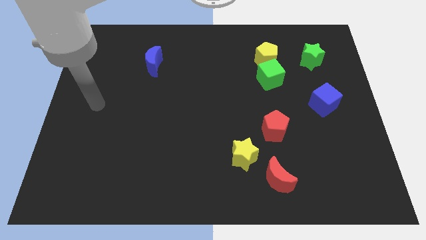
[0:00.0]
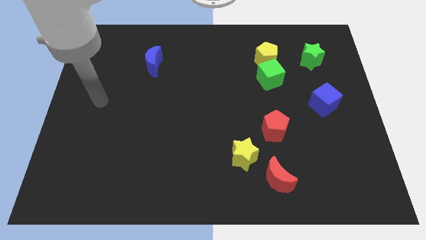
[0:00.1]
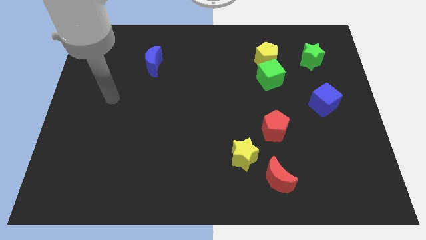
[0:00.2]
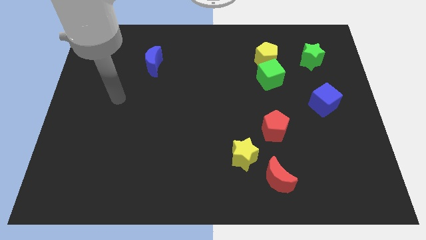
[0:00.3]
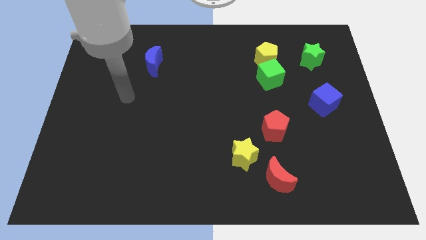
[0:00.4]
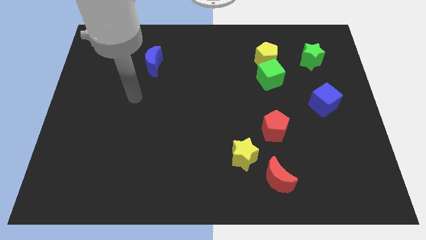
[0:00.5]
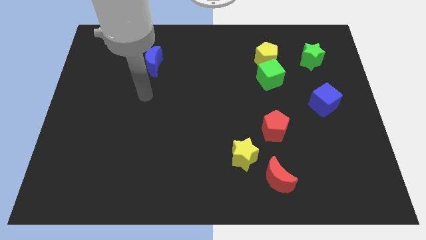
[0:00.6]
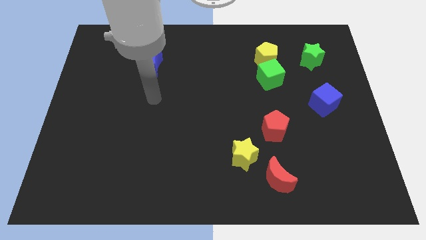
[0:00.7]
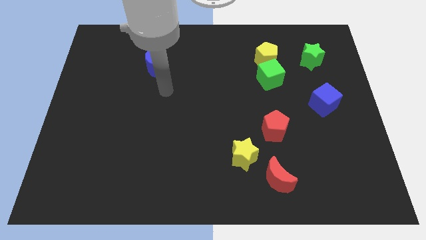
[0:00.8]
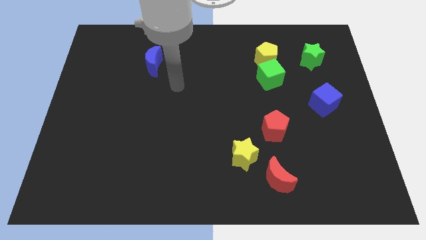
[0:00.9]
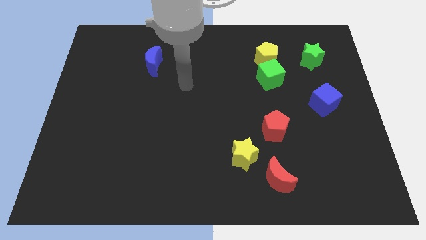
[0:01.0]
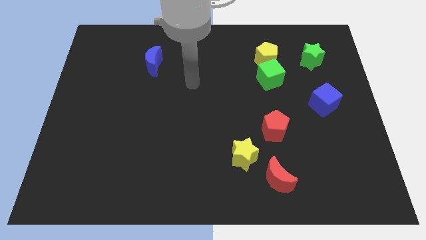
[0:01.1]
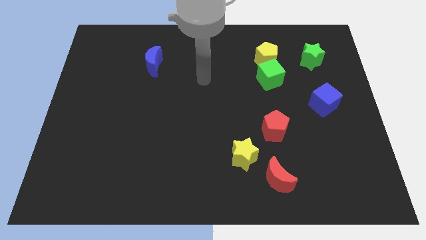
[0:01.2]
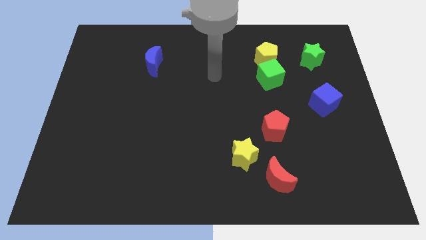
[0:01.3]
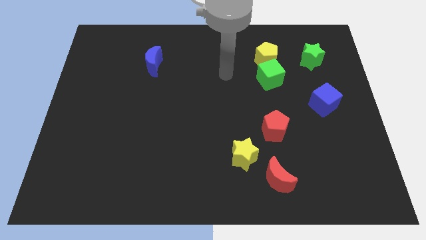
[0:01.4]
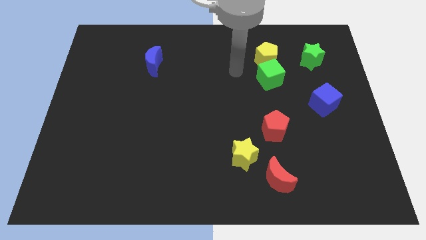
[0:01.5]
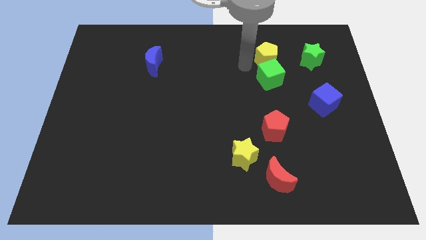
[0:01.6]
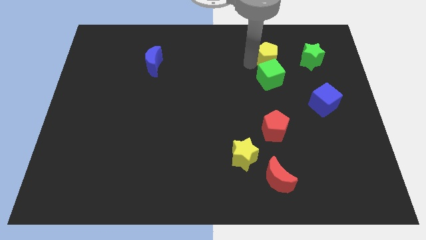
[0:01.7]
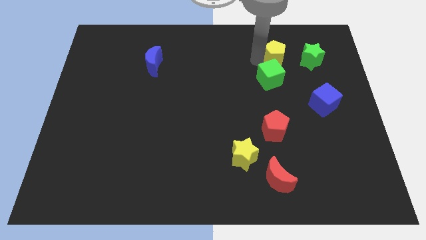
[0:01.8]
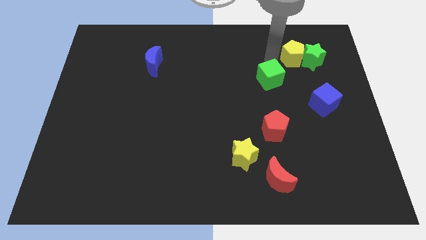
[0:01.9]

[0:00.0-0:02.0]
move the green cube away from the yellow pentagon

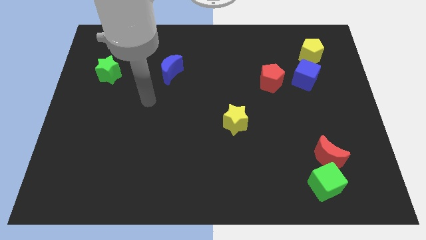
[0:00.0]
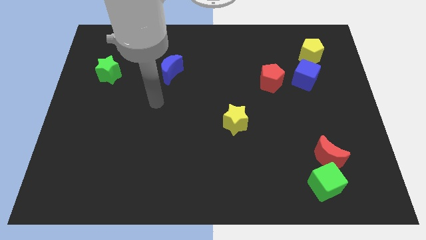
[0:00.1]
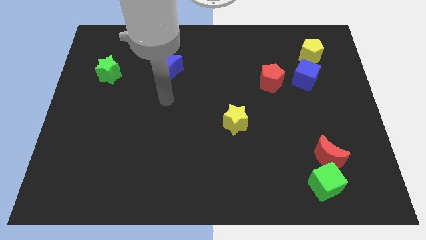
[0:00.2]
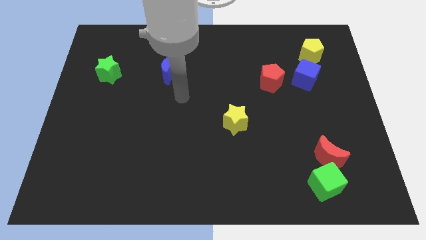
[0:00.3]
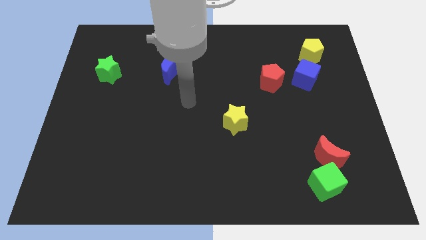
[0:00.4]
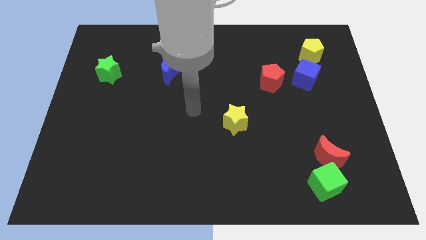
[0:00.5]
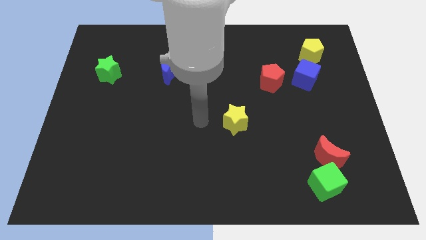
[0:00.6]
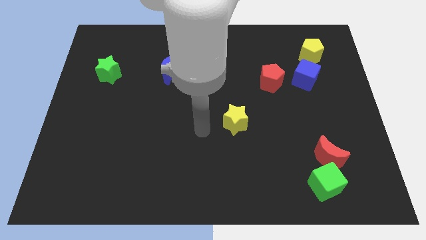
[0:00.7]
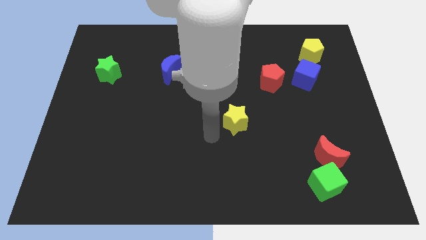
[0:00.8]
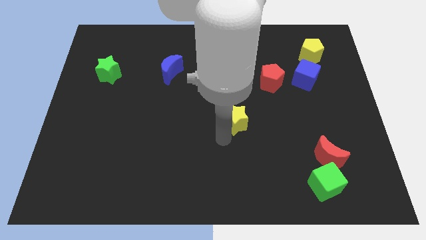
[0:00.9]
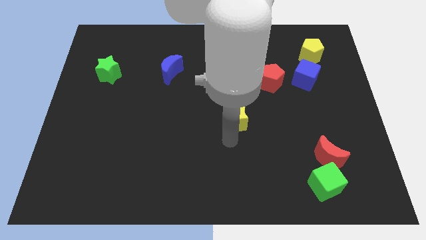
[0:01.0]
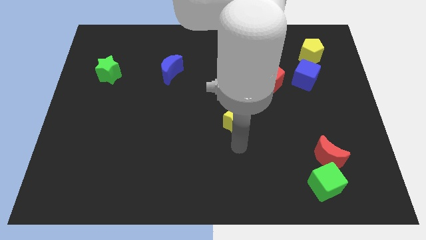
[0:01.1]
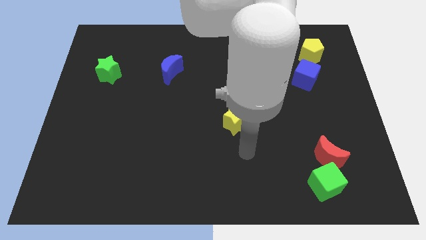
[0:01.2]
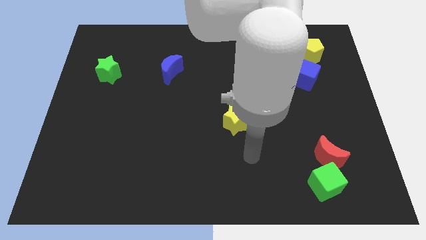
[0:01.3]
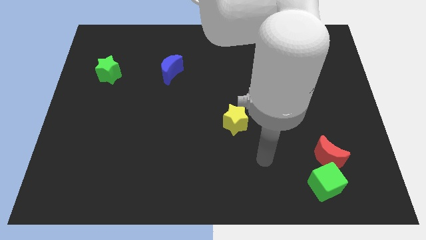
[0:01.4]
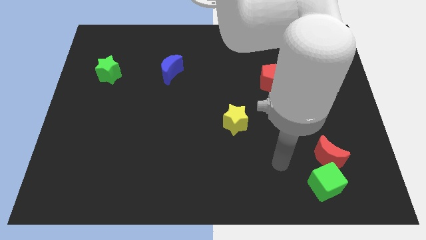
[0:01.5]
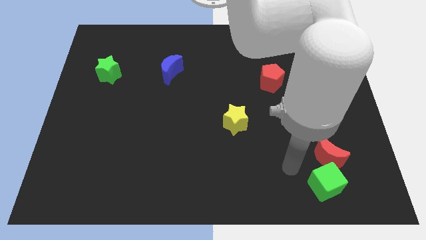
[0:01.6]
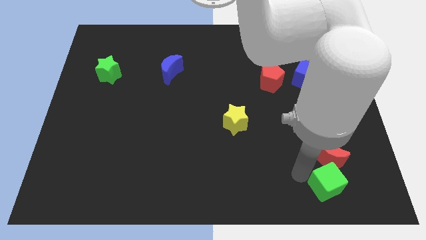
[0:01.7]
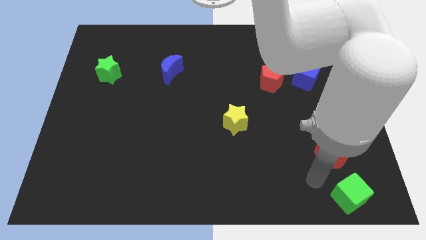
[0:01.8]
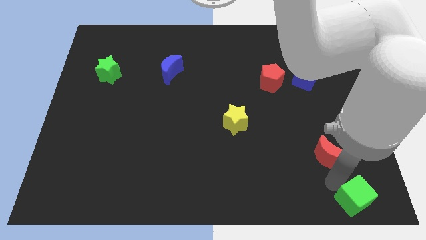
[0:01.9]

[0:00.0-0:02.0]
separate the red moon from the green cube

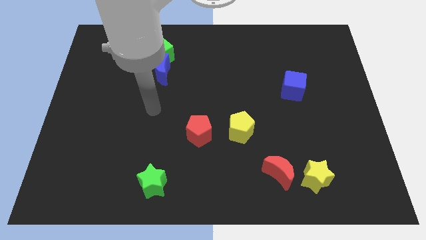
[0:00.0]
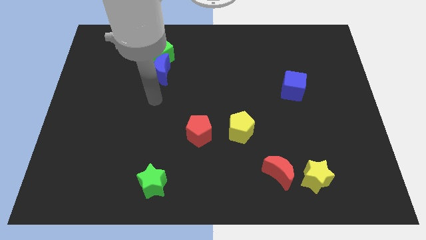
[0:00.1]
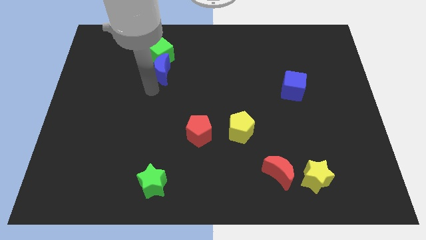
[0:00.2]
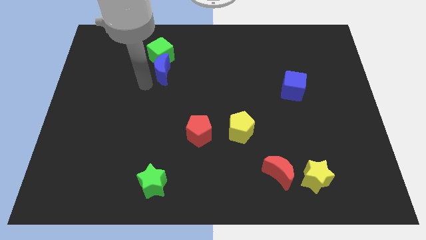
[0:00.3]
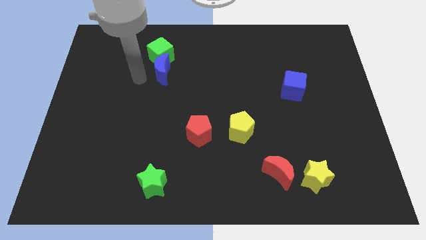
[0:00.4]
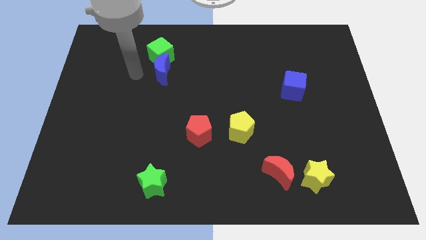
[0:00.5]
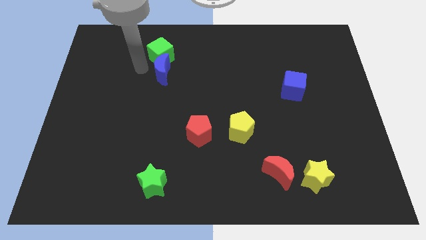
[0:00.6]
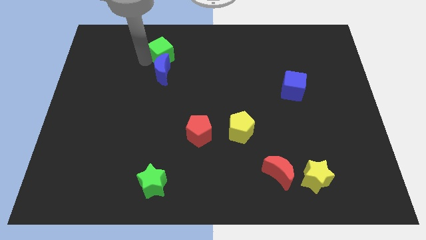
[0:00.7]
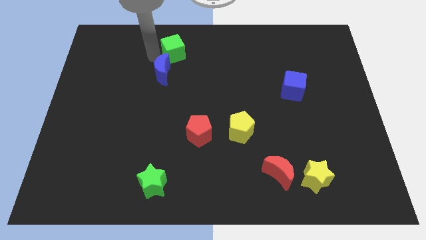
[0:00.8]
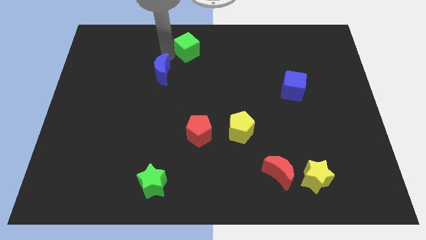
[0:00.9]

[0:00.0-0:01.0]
separate the blue moon from the green cube

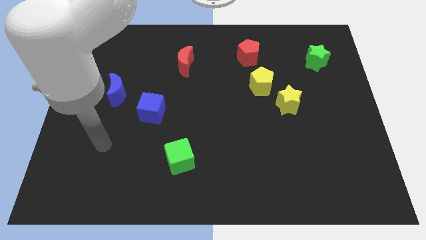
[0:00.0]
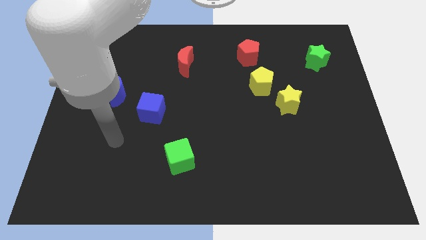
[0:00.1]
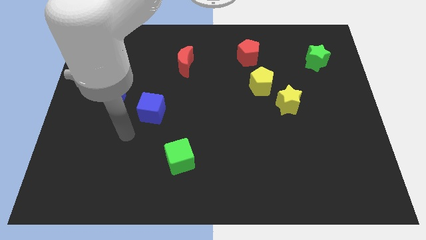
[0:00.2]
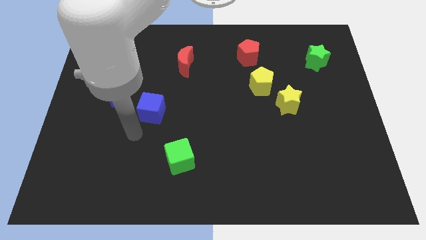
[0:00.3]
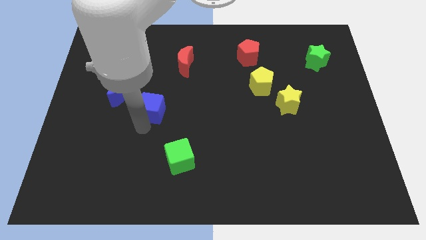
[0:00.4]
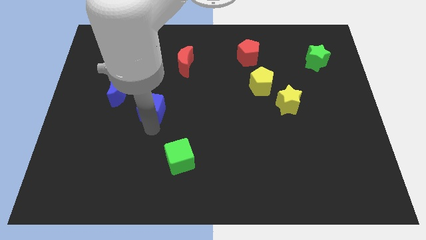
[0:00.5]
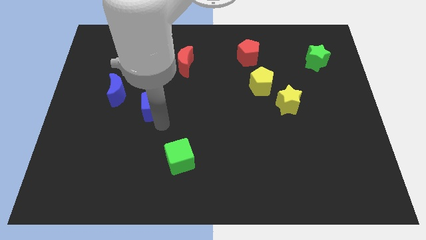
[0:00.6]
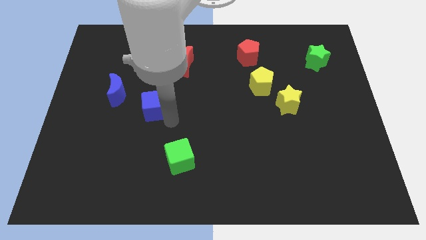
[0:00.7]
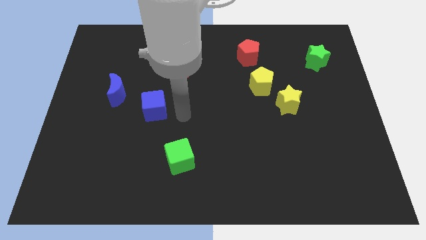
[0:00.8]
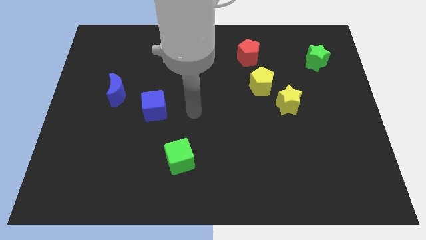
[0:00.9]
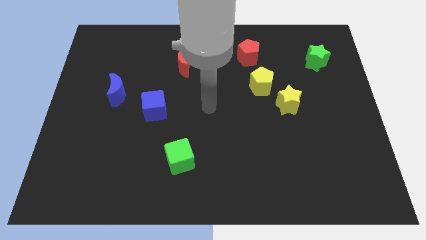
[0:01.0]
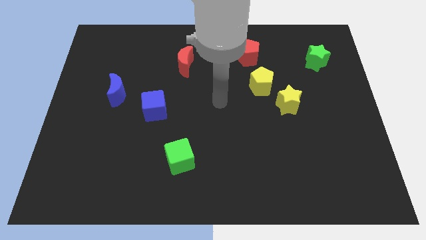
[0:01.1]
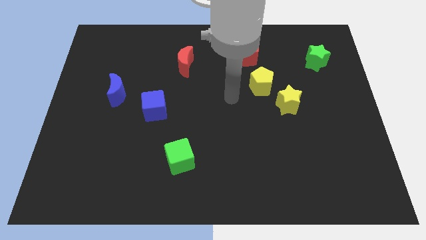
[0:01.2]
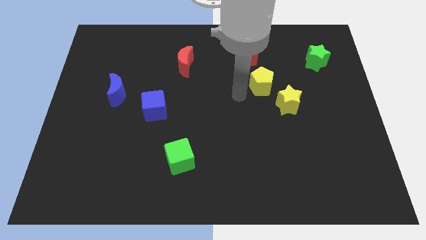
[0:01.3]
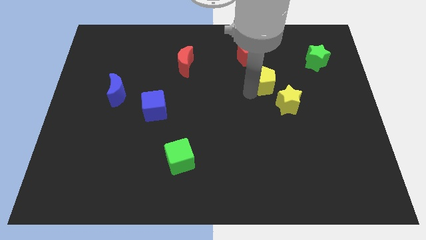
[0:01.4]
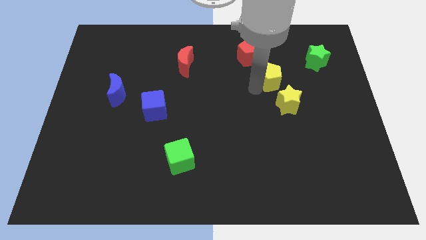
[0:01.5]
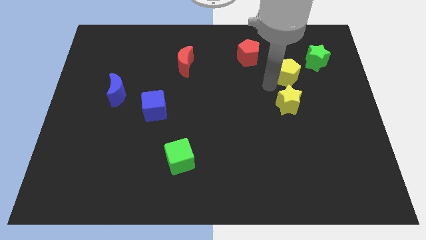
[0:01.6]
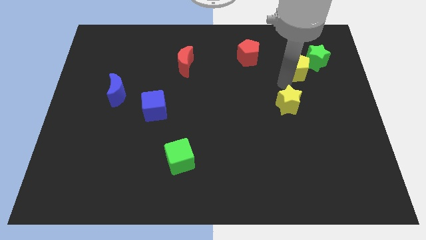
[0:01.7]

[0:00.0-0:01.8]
move the yellow star away from the yellow pentagon

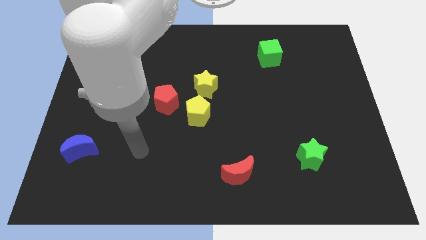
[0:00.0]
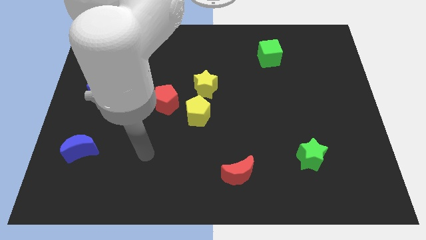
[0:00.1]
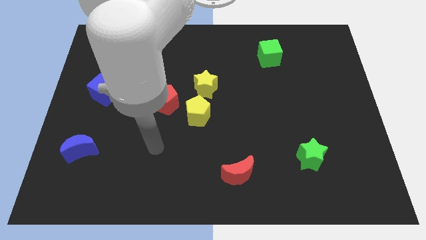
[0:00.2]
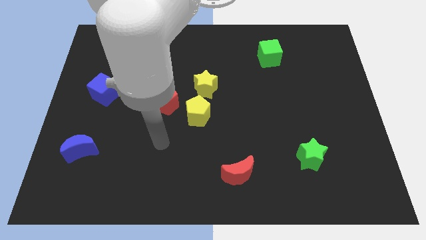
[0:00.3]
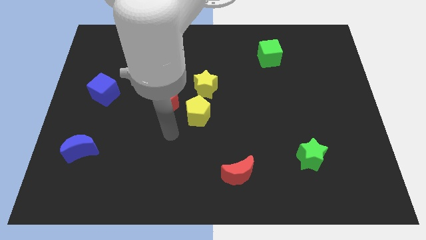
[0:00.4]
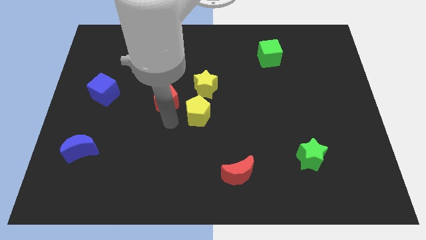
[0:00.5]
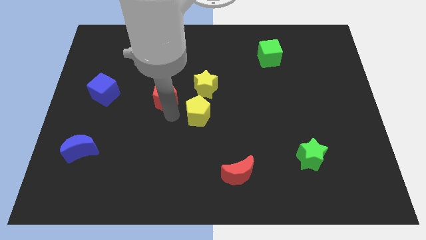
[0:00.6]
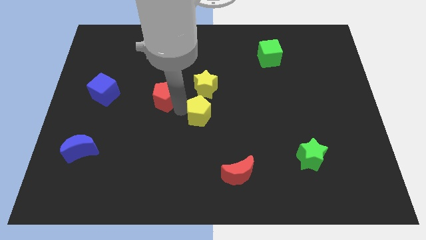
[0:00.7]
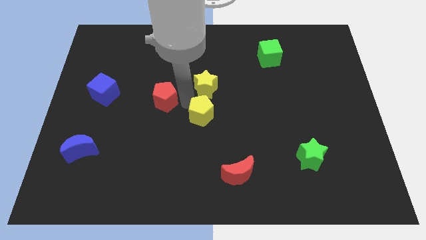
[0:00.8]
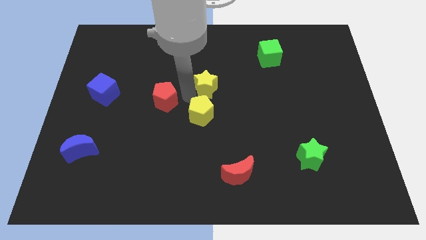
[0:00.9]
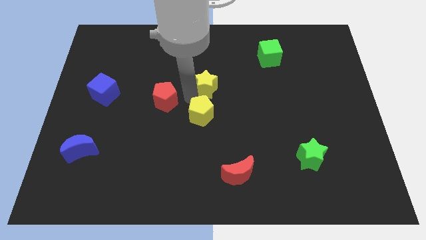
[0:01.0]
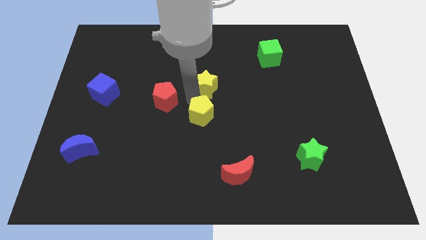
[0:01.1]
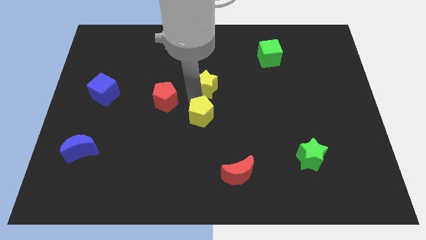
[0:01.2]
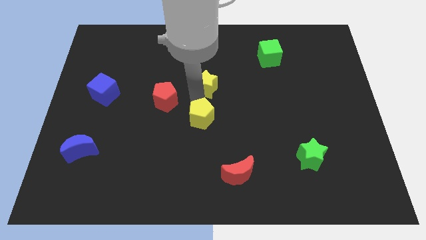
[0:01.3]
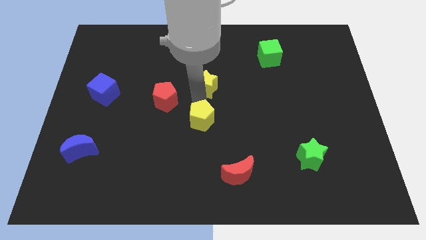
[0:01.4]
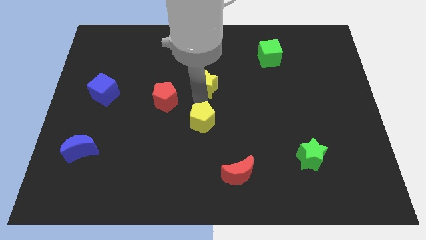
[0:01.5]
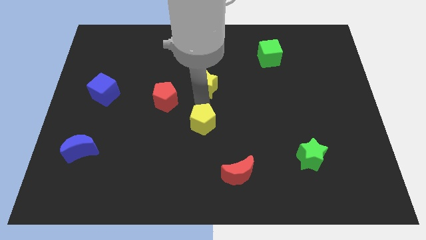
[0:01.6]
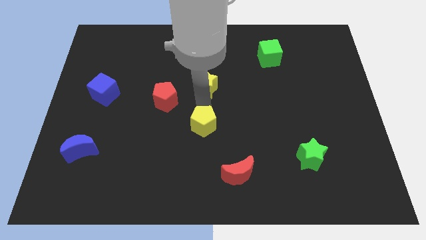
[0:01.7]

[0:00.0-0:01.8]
pull the yellow pentagon apart from the red pentagon and yellow star

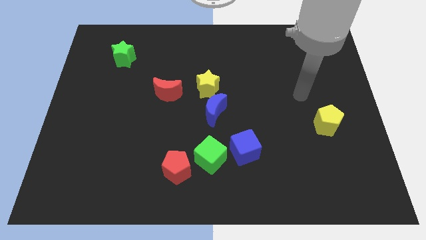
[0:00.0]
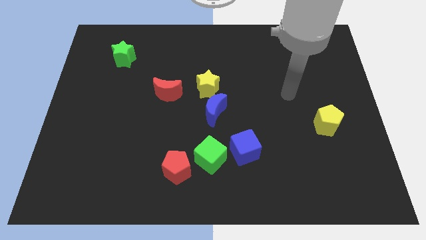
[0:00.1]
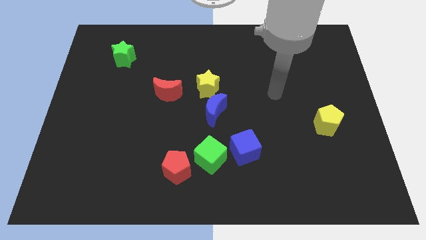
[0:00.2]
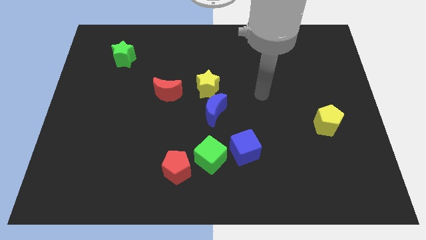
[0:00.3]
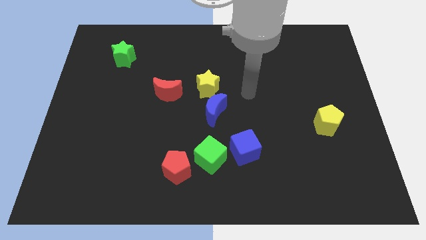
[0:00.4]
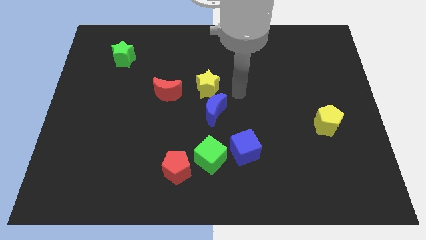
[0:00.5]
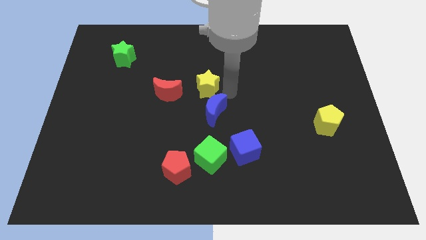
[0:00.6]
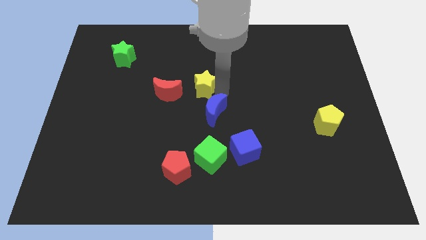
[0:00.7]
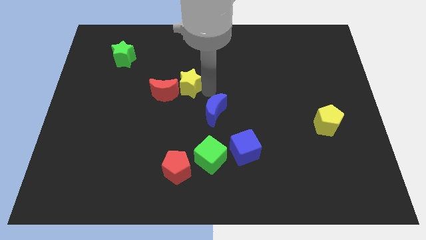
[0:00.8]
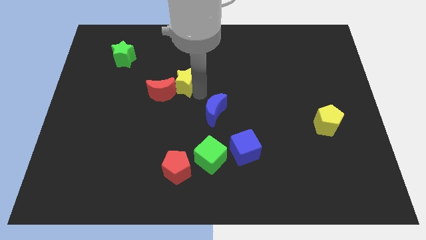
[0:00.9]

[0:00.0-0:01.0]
pull the blue moon apart from the yellow star
